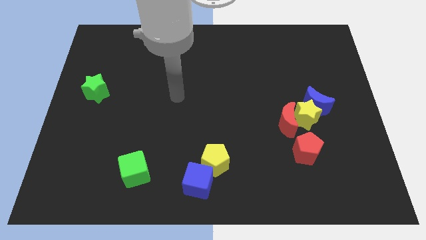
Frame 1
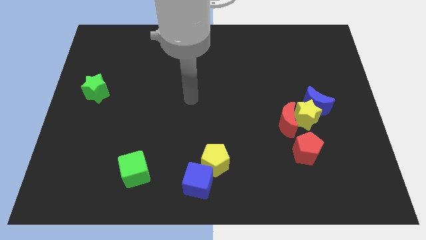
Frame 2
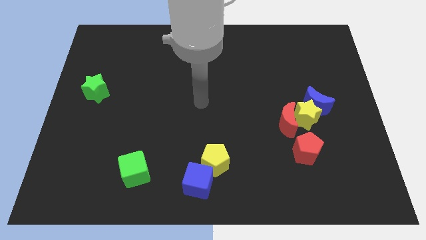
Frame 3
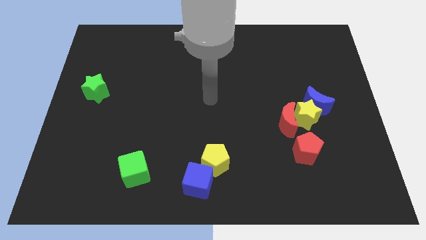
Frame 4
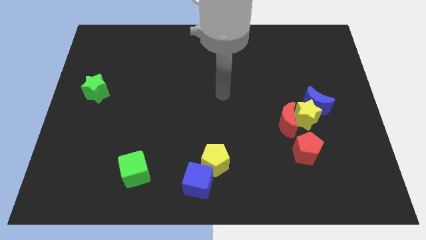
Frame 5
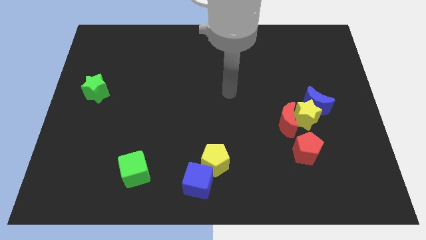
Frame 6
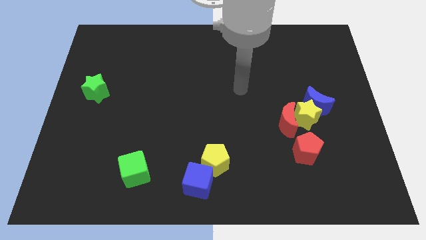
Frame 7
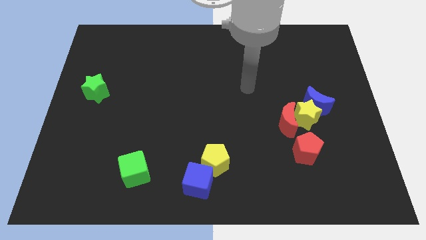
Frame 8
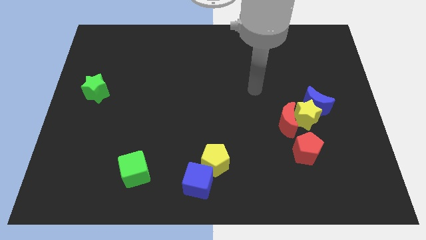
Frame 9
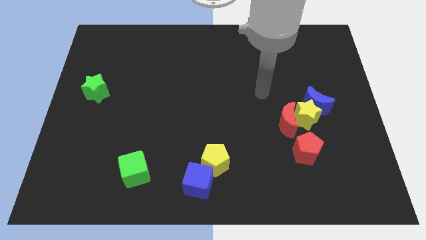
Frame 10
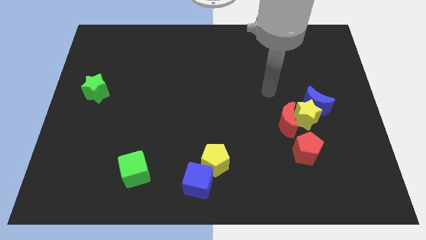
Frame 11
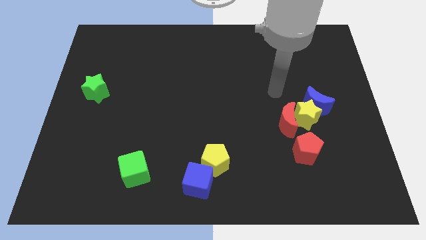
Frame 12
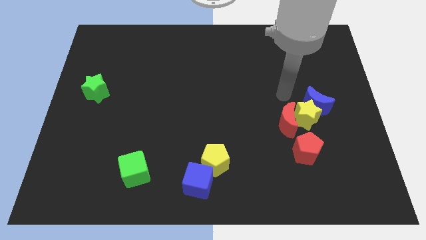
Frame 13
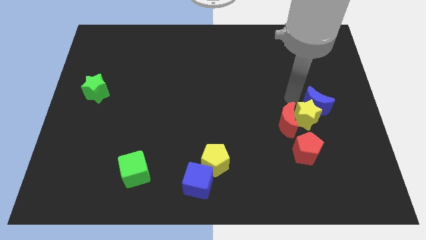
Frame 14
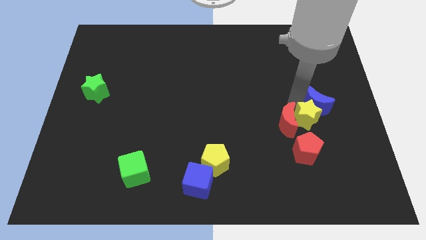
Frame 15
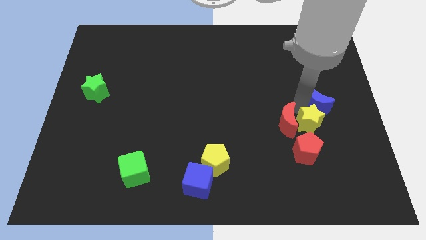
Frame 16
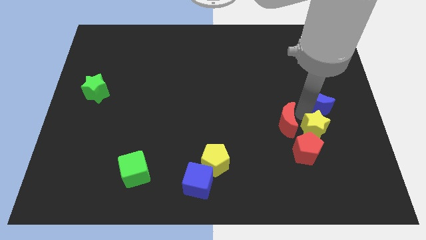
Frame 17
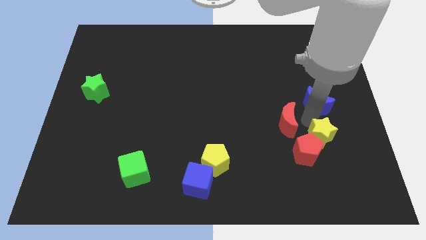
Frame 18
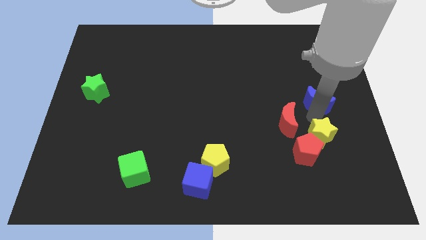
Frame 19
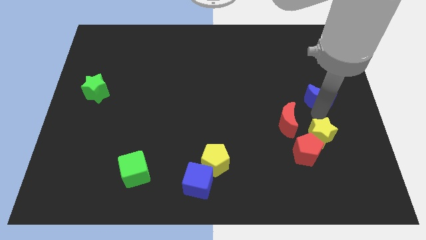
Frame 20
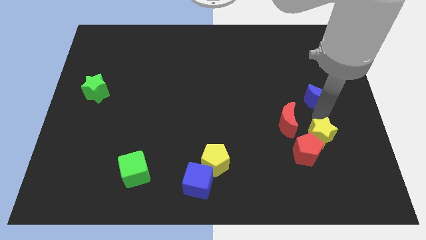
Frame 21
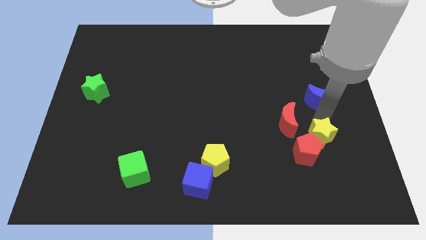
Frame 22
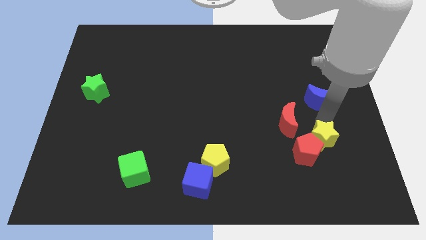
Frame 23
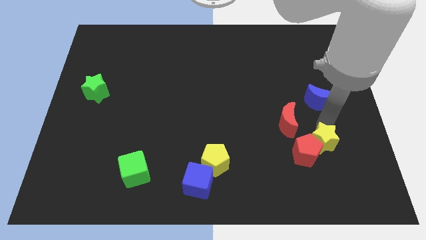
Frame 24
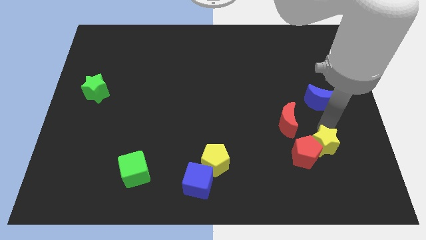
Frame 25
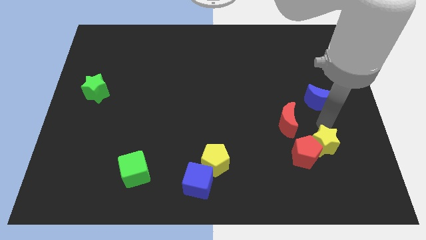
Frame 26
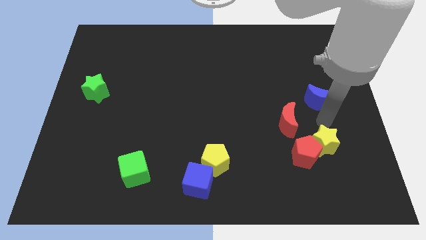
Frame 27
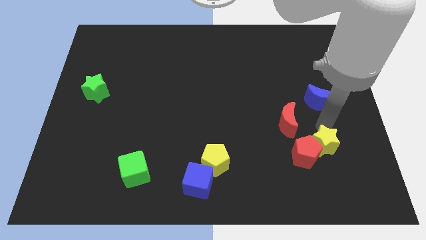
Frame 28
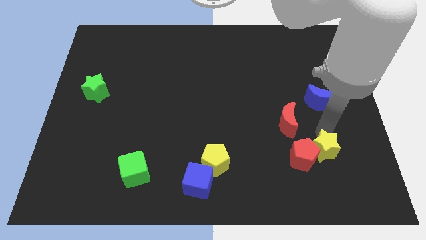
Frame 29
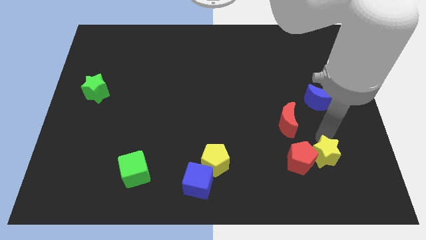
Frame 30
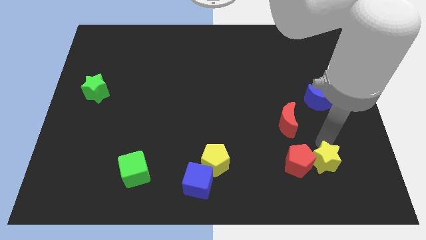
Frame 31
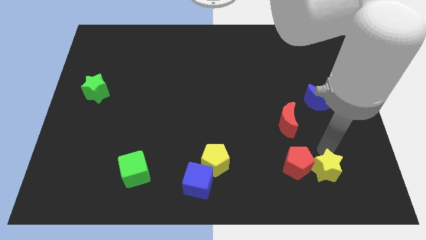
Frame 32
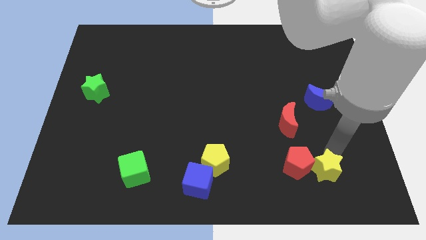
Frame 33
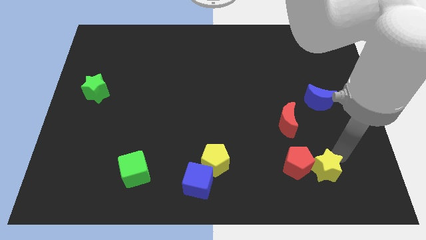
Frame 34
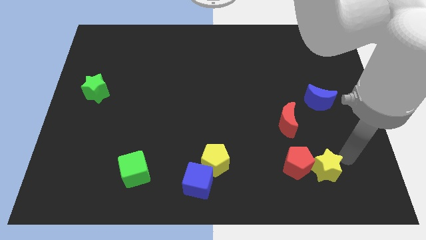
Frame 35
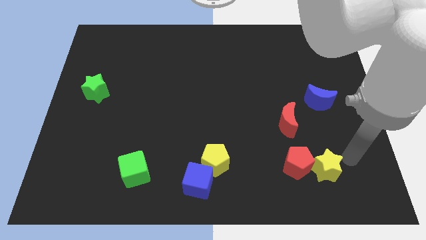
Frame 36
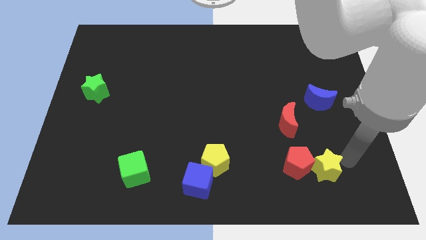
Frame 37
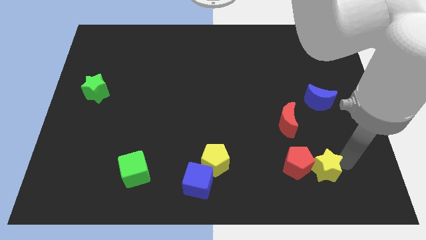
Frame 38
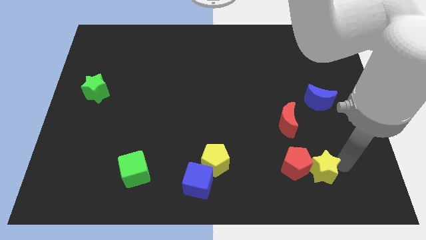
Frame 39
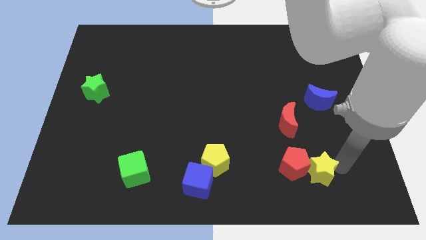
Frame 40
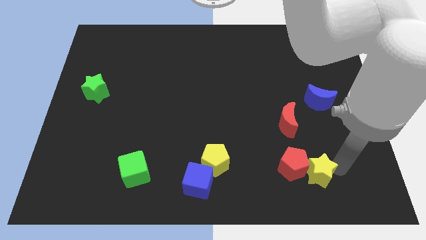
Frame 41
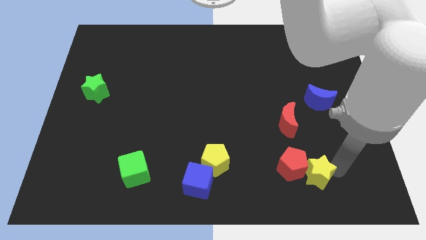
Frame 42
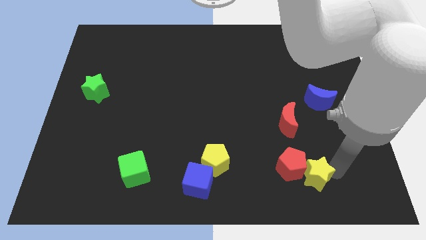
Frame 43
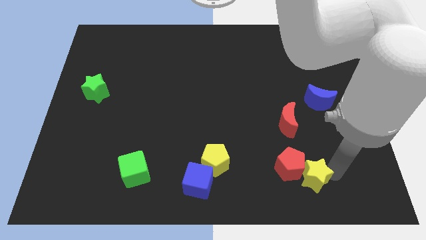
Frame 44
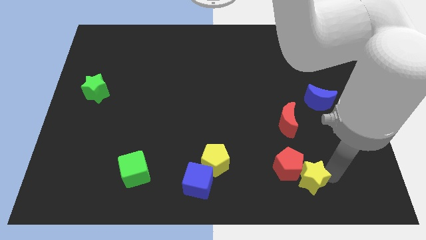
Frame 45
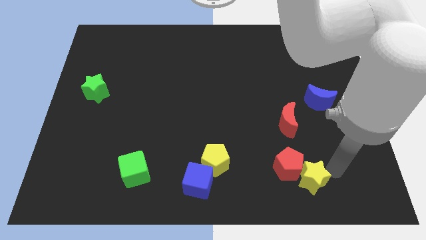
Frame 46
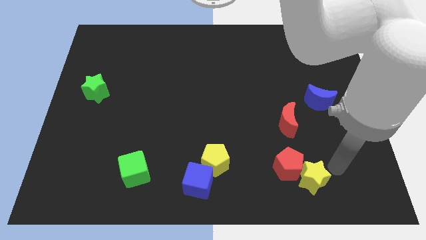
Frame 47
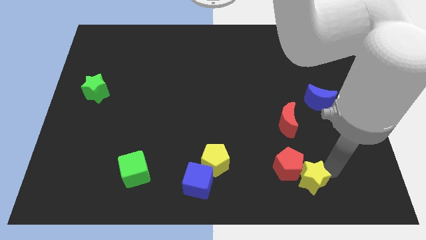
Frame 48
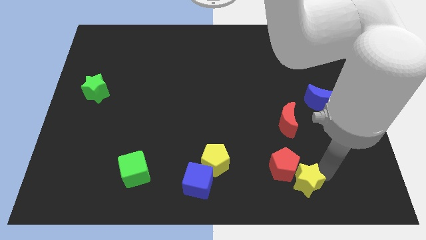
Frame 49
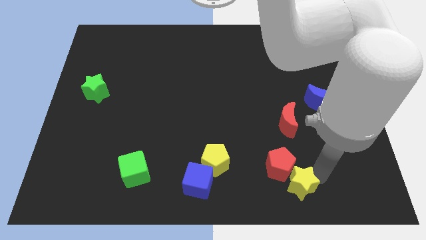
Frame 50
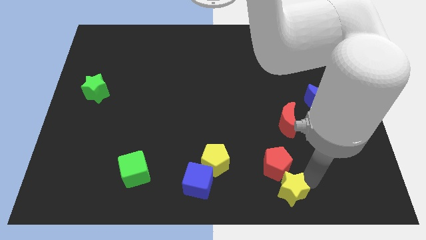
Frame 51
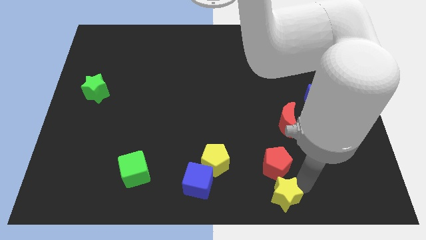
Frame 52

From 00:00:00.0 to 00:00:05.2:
move the yellow star to the bottom side

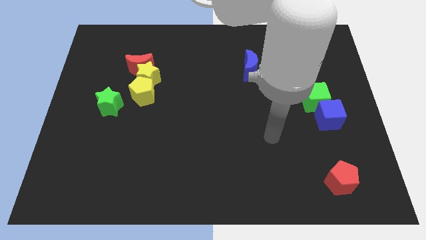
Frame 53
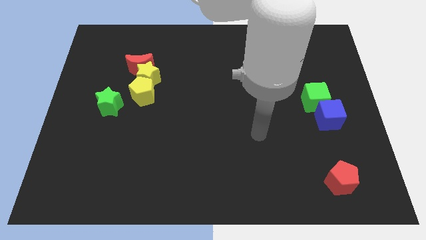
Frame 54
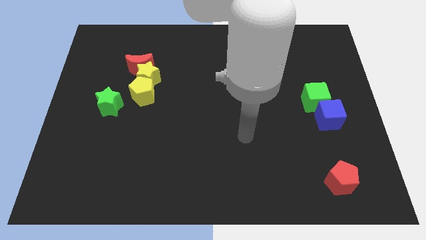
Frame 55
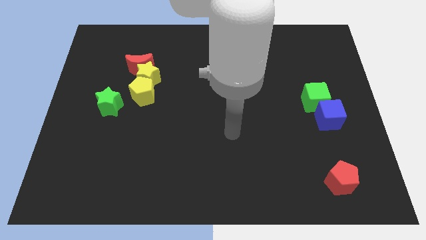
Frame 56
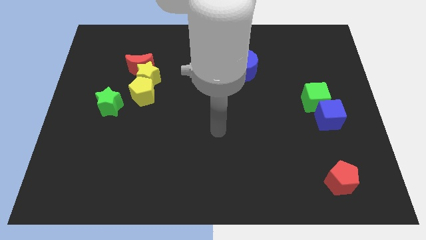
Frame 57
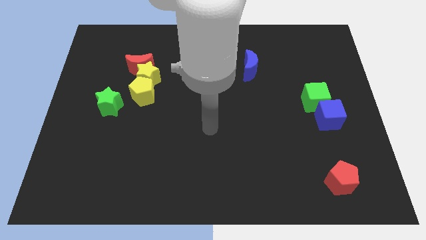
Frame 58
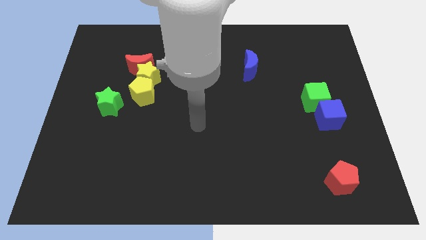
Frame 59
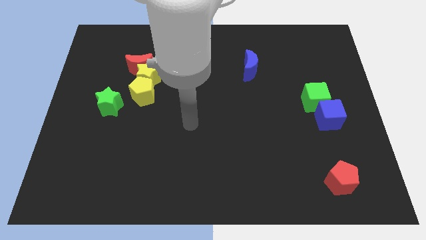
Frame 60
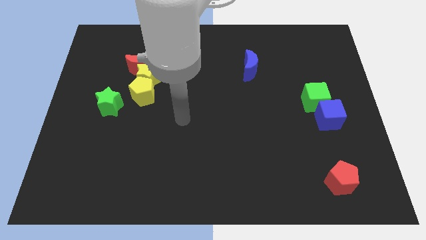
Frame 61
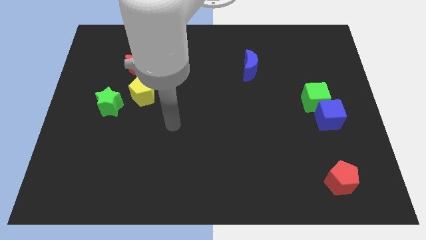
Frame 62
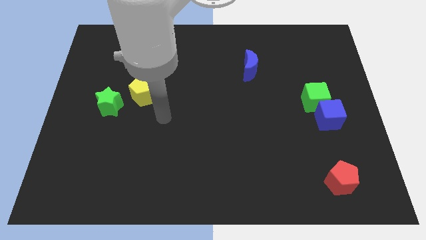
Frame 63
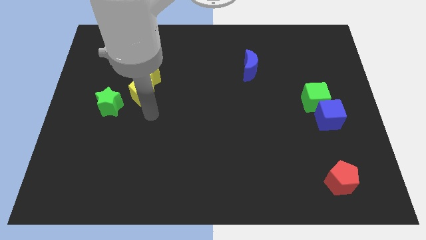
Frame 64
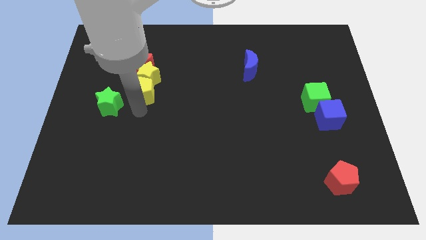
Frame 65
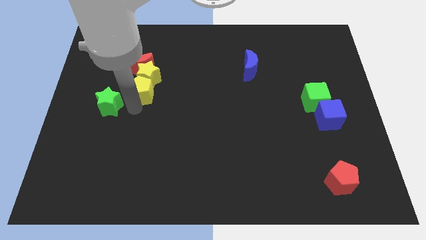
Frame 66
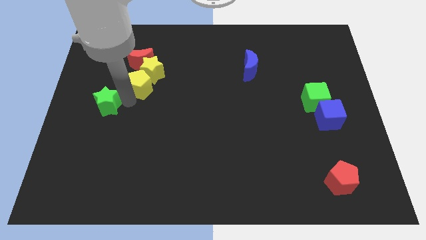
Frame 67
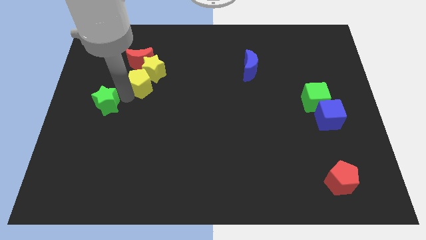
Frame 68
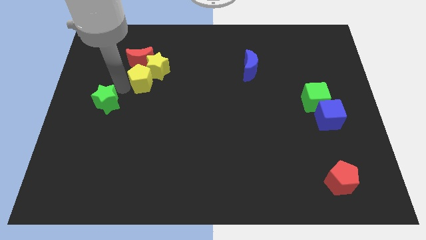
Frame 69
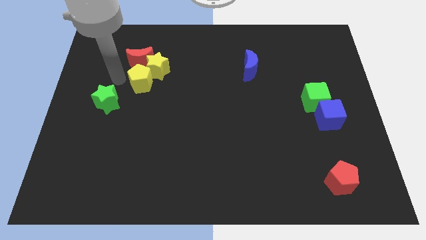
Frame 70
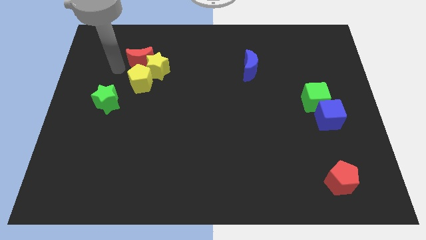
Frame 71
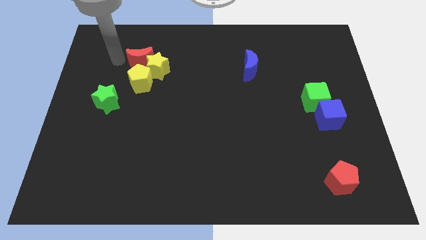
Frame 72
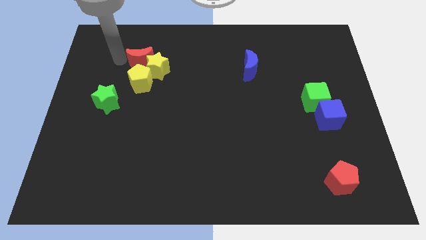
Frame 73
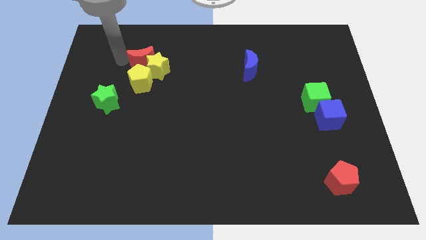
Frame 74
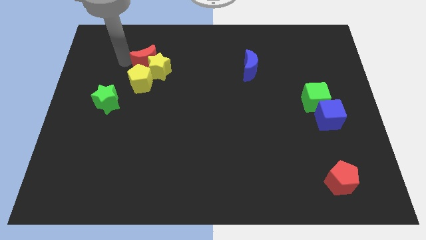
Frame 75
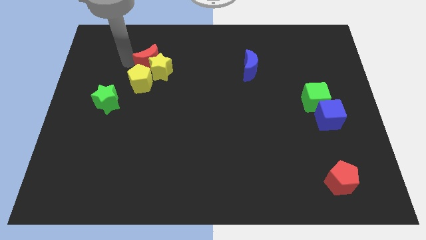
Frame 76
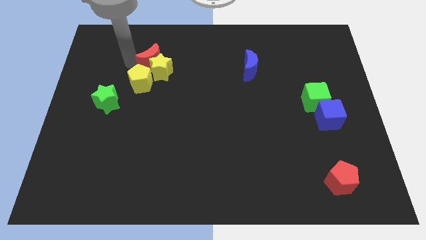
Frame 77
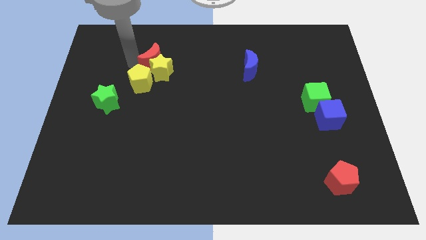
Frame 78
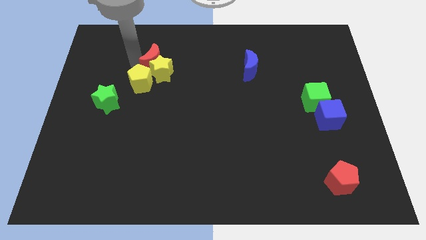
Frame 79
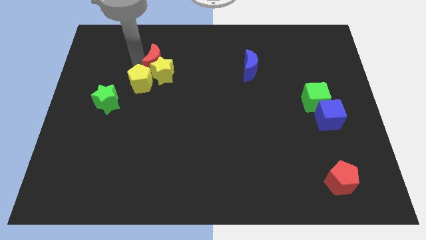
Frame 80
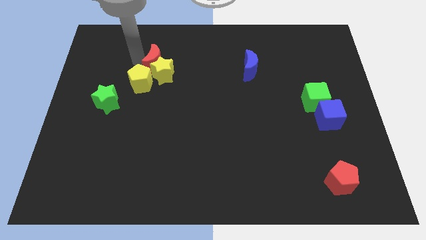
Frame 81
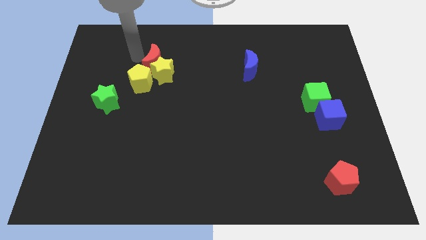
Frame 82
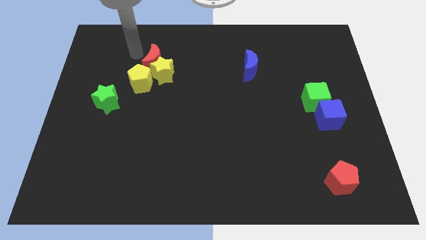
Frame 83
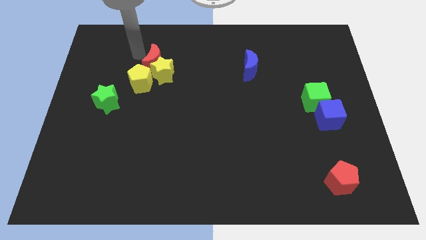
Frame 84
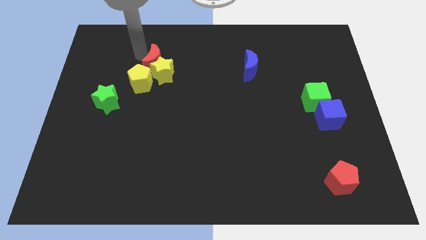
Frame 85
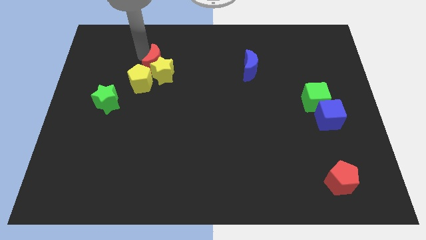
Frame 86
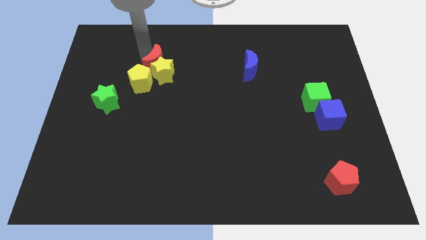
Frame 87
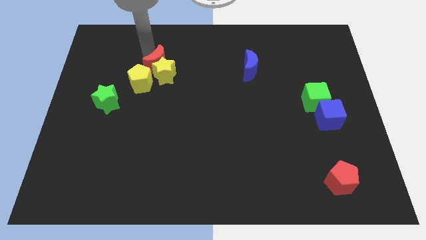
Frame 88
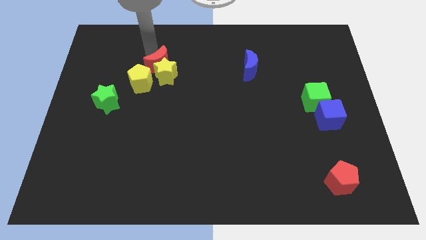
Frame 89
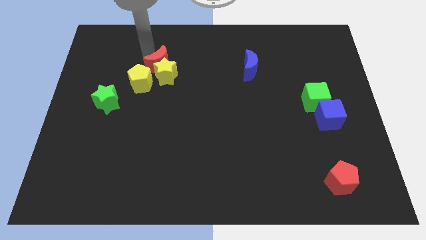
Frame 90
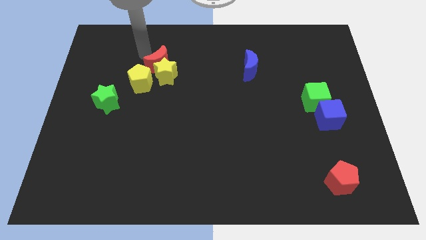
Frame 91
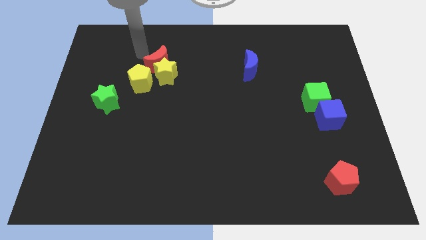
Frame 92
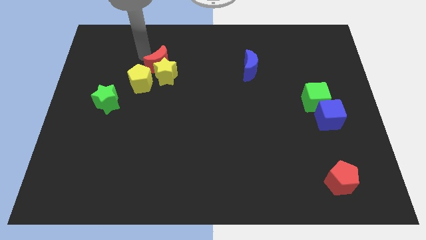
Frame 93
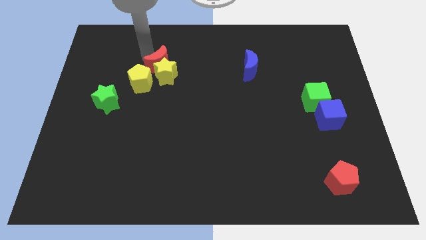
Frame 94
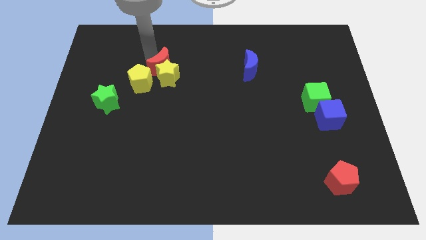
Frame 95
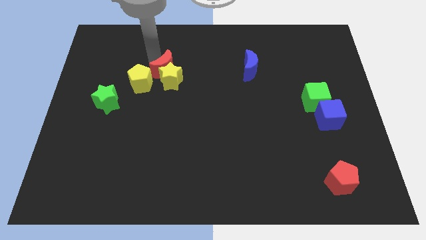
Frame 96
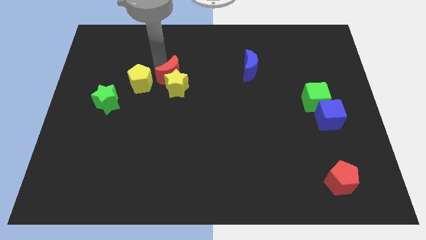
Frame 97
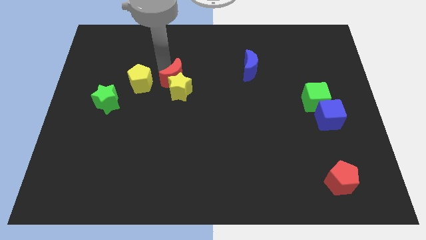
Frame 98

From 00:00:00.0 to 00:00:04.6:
slide the red moon to the center
